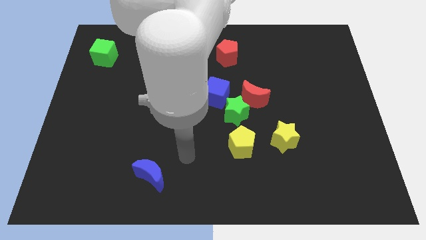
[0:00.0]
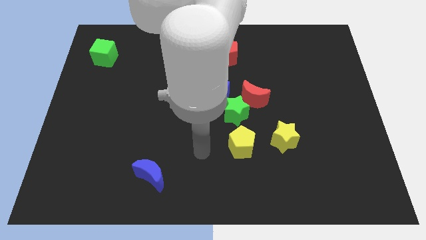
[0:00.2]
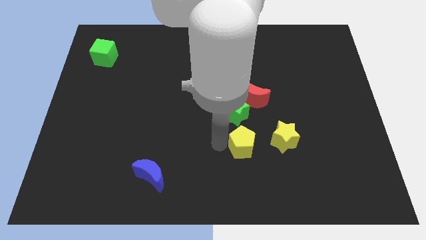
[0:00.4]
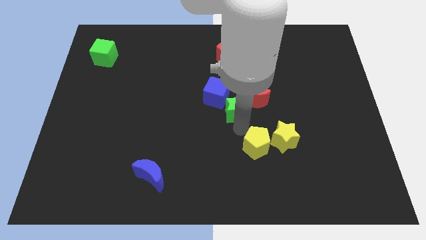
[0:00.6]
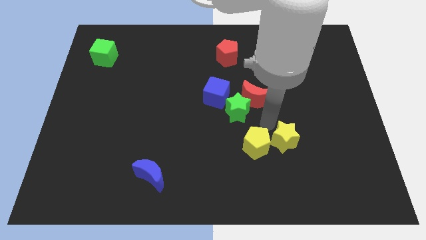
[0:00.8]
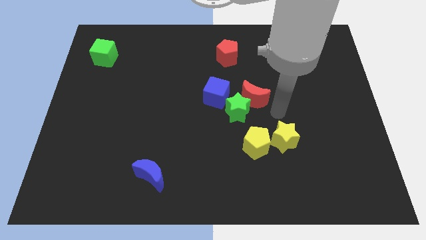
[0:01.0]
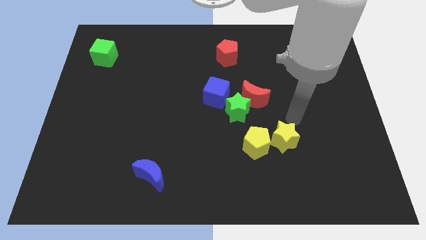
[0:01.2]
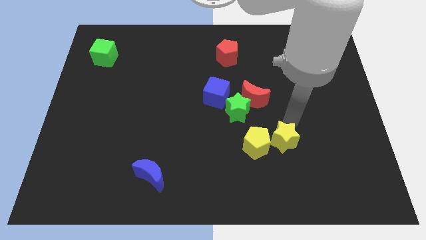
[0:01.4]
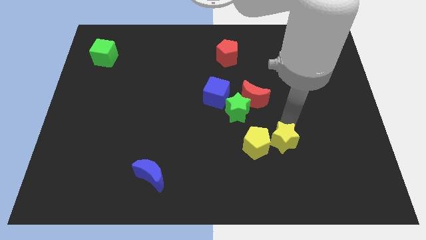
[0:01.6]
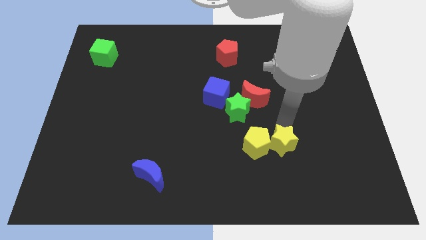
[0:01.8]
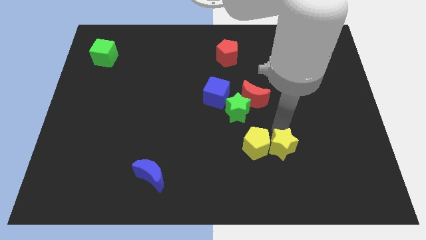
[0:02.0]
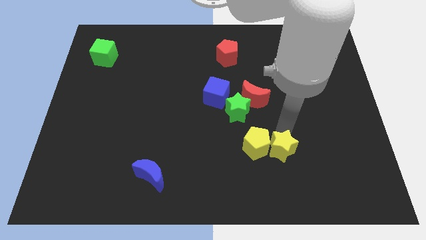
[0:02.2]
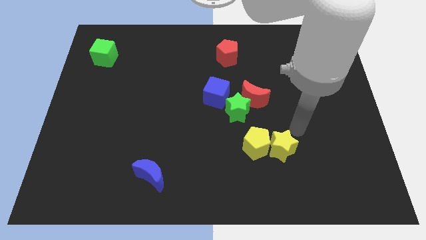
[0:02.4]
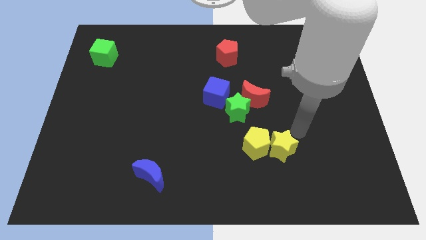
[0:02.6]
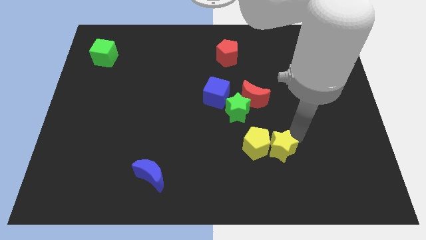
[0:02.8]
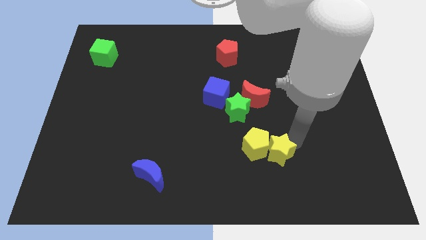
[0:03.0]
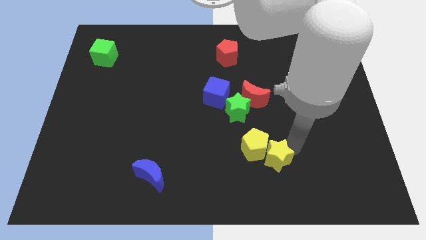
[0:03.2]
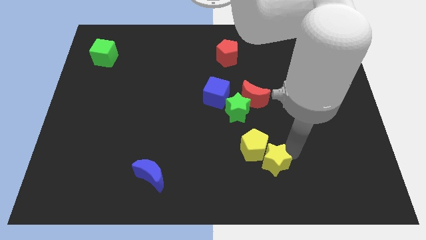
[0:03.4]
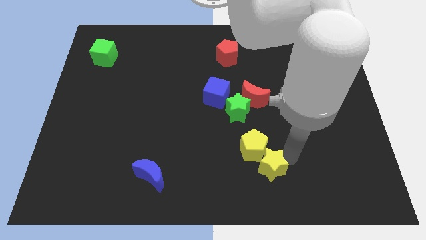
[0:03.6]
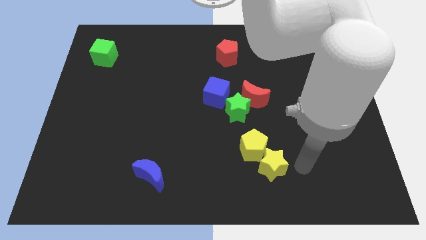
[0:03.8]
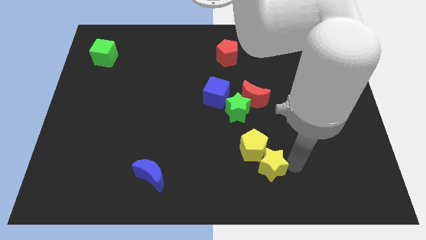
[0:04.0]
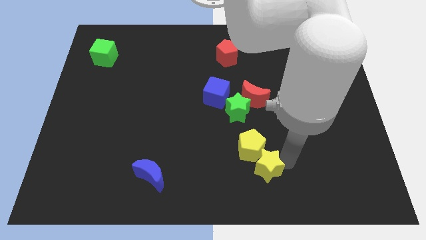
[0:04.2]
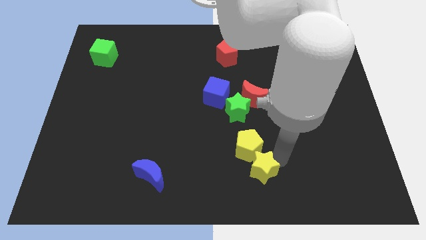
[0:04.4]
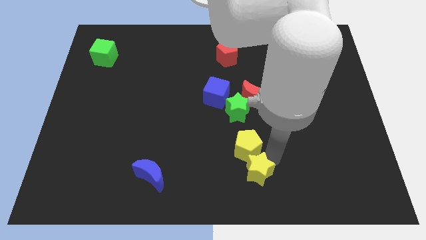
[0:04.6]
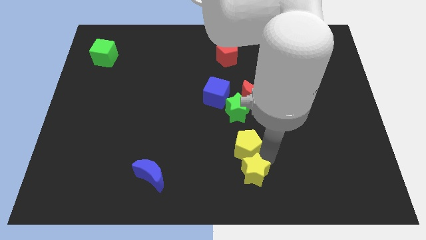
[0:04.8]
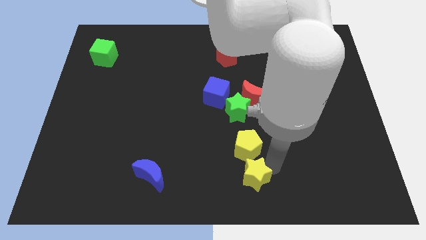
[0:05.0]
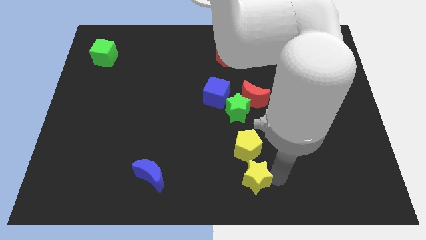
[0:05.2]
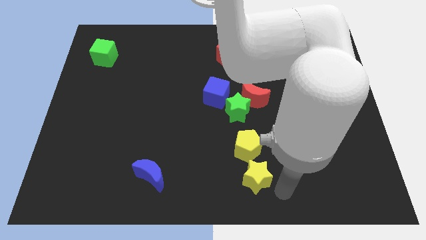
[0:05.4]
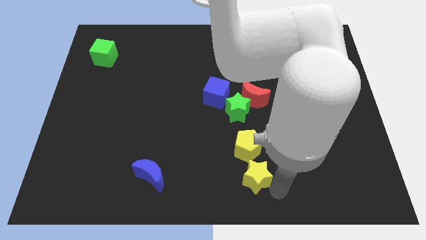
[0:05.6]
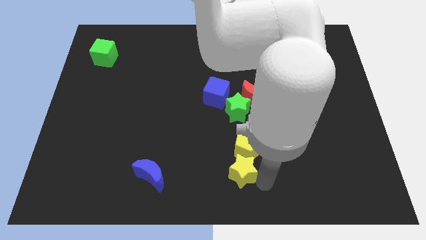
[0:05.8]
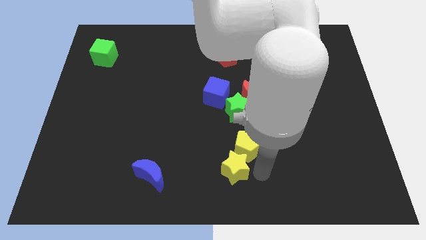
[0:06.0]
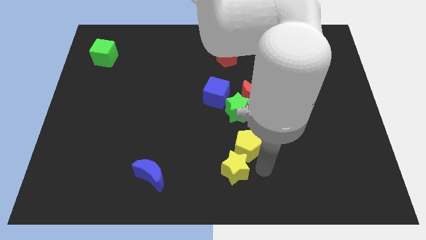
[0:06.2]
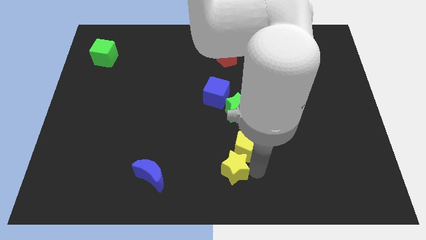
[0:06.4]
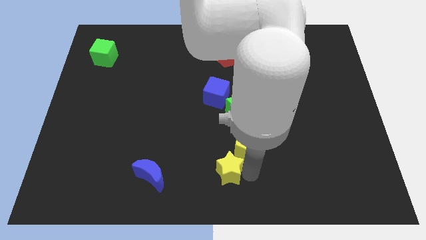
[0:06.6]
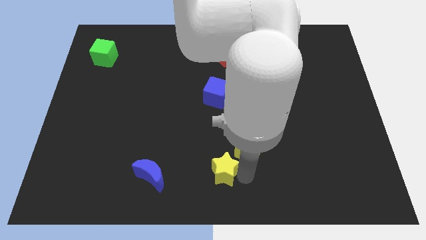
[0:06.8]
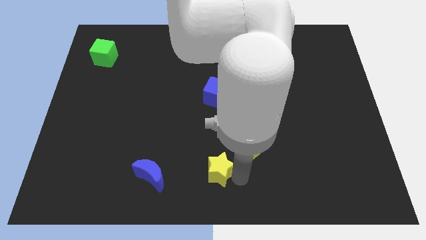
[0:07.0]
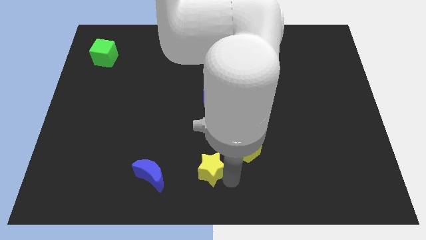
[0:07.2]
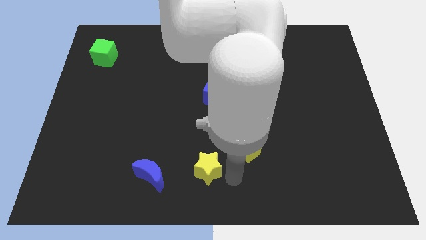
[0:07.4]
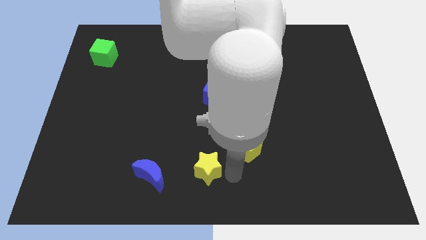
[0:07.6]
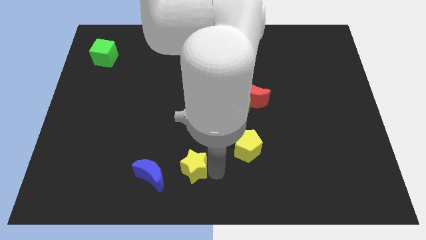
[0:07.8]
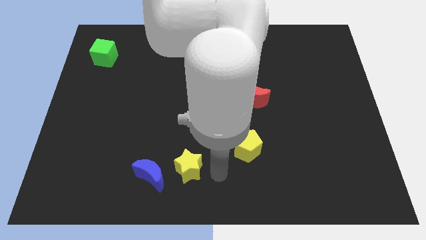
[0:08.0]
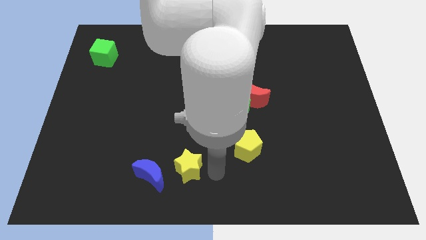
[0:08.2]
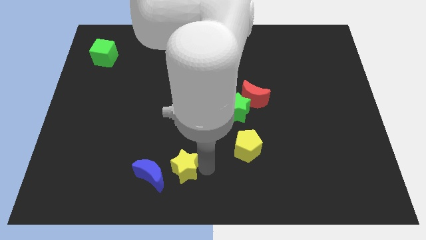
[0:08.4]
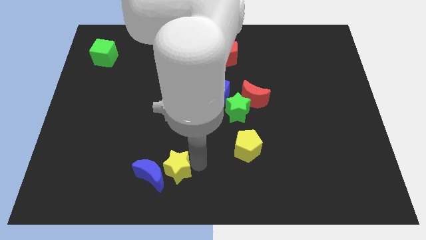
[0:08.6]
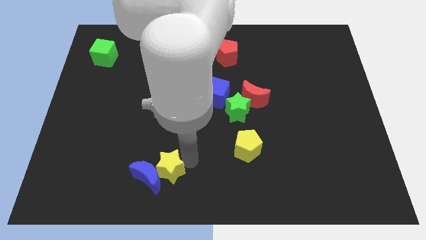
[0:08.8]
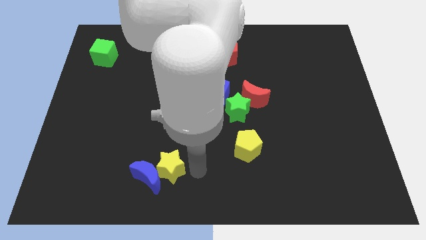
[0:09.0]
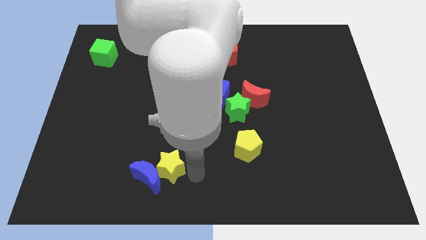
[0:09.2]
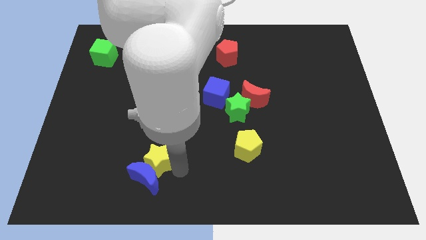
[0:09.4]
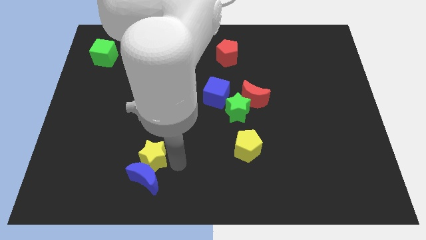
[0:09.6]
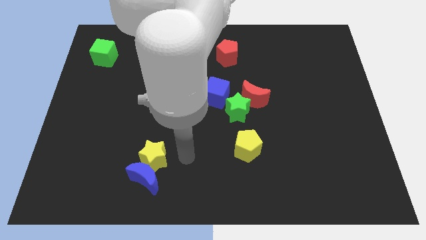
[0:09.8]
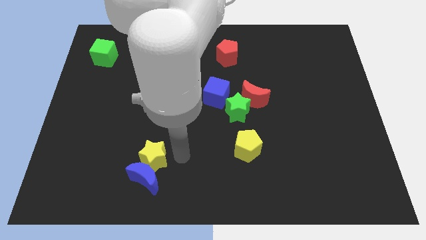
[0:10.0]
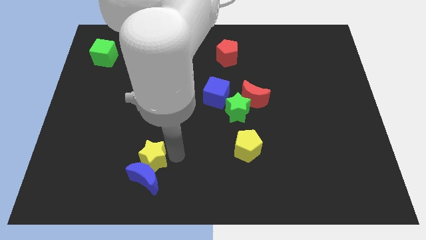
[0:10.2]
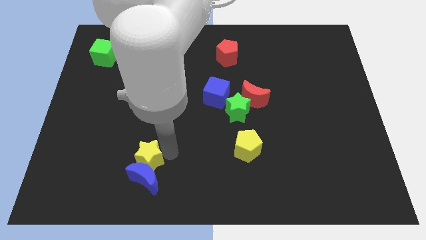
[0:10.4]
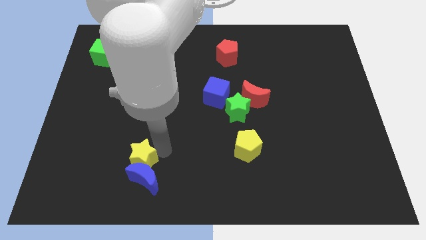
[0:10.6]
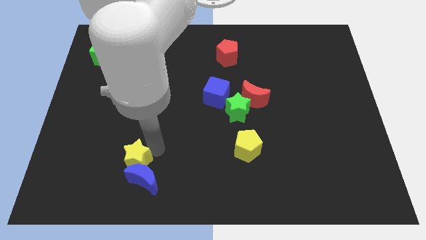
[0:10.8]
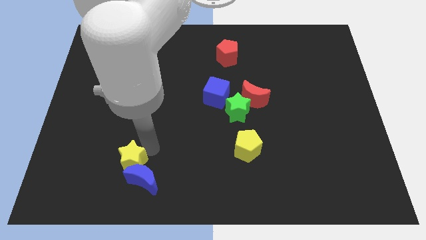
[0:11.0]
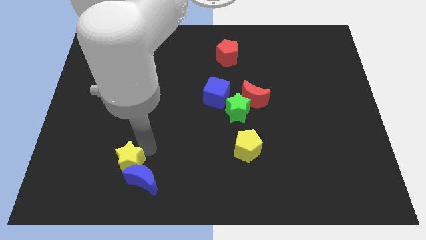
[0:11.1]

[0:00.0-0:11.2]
move the yellow star to the left of the blue moon
